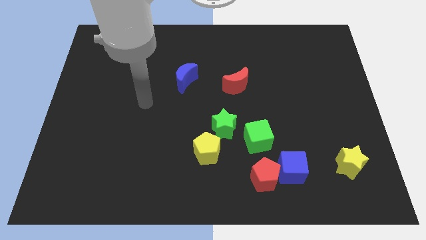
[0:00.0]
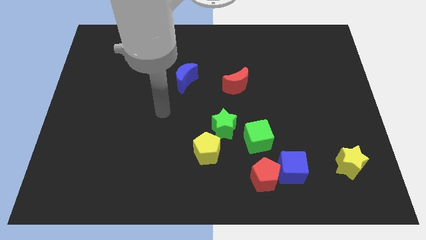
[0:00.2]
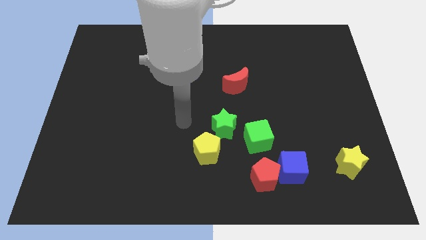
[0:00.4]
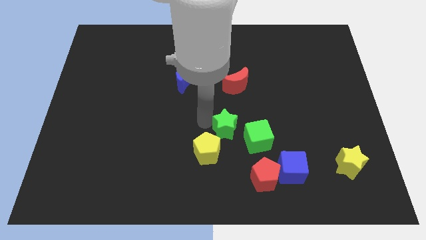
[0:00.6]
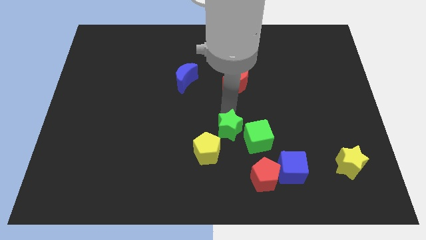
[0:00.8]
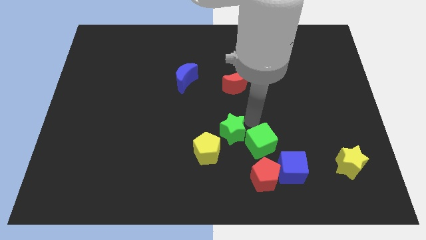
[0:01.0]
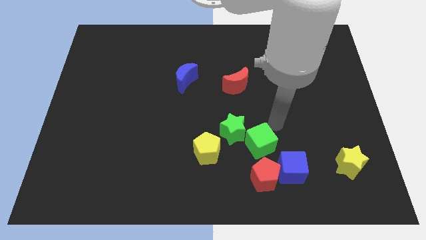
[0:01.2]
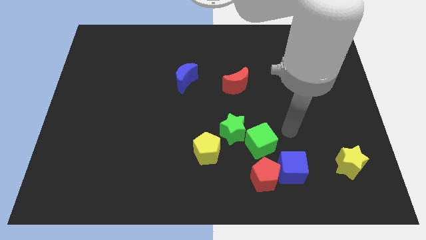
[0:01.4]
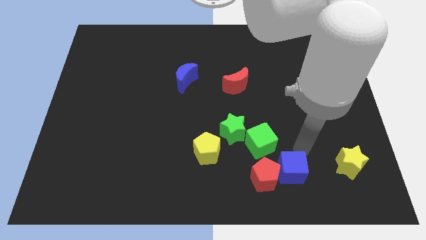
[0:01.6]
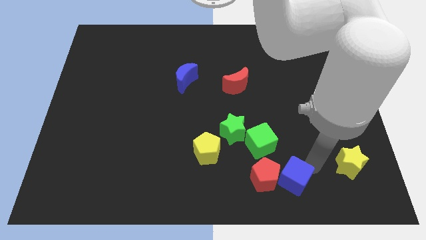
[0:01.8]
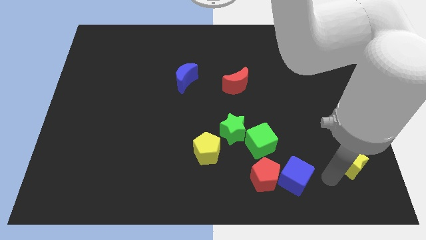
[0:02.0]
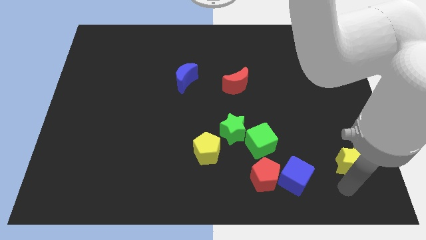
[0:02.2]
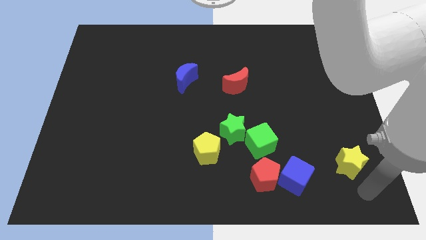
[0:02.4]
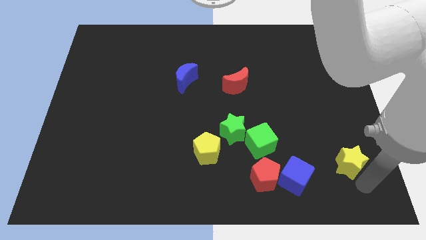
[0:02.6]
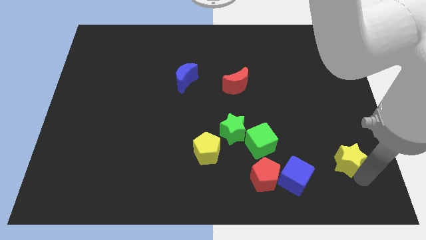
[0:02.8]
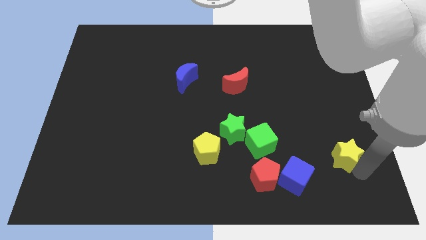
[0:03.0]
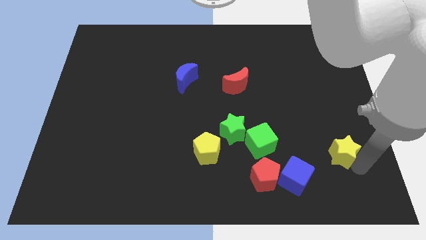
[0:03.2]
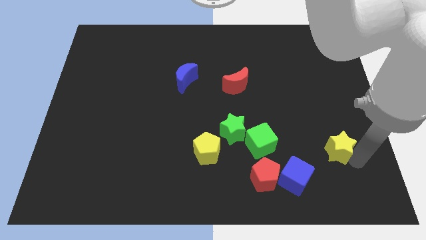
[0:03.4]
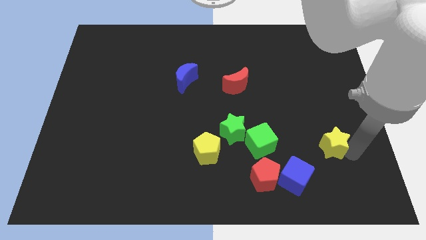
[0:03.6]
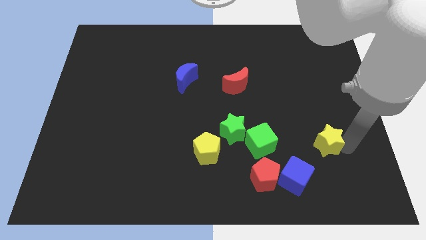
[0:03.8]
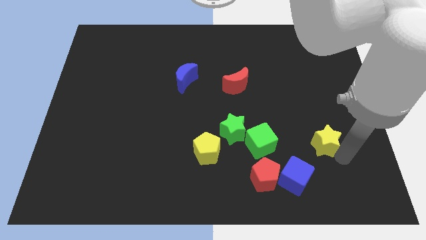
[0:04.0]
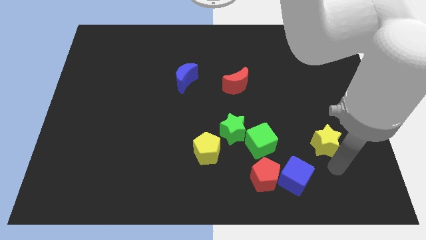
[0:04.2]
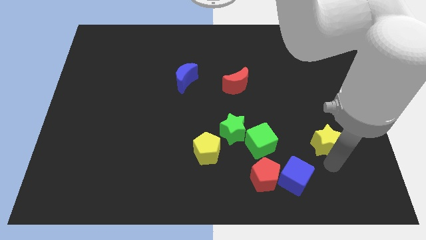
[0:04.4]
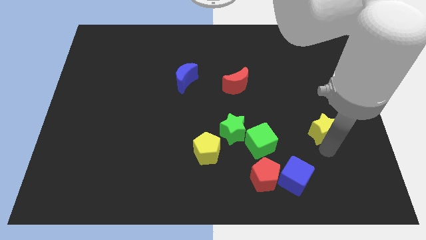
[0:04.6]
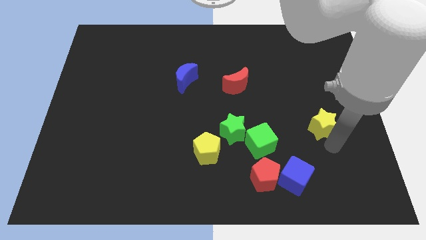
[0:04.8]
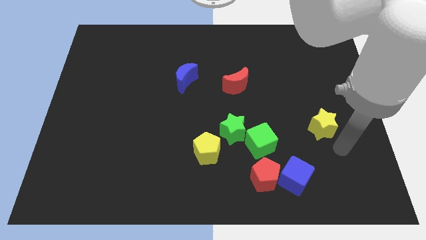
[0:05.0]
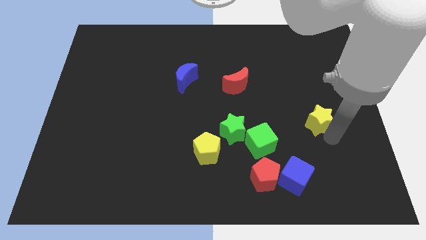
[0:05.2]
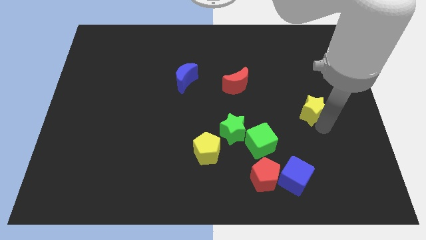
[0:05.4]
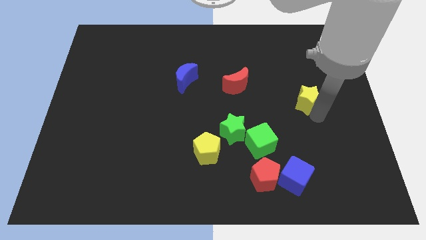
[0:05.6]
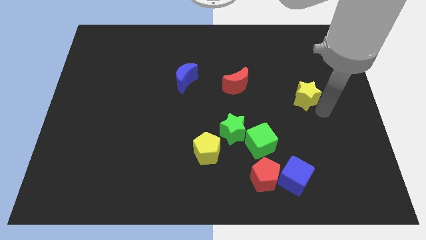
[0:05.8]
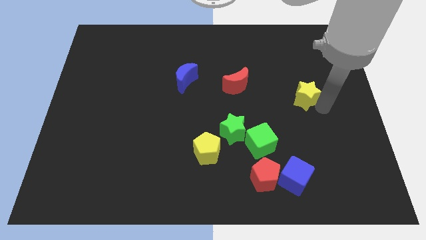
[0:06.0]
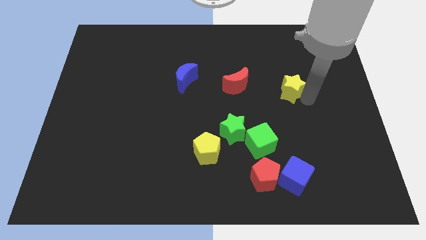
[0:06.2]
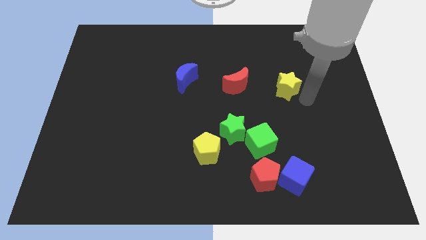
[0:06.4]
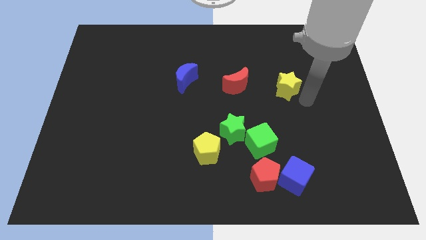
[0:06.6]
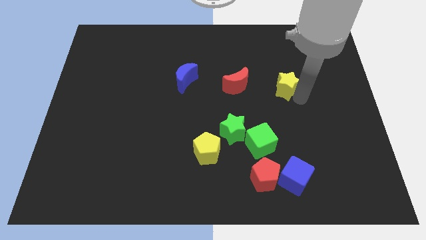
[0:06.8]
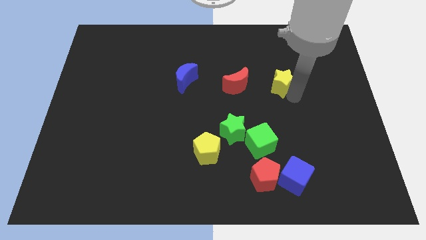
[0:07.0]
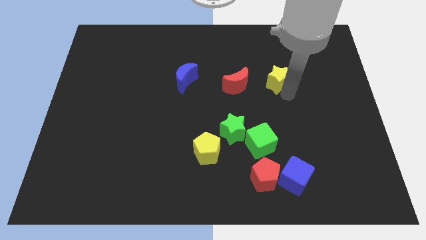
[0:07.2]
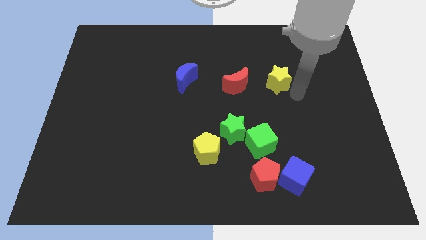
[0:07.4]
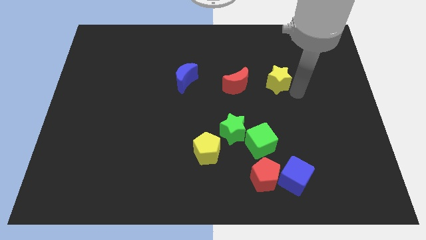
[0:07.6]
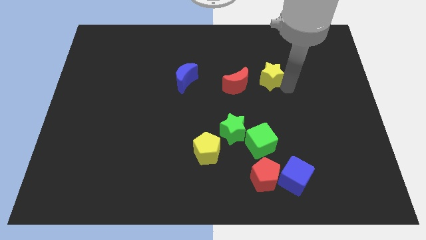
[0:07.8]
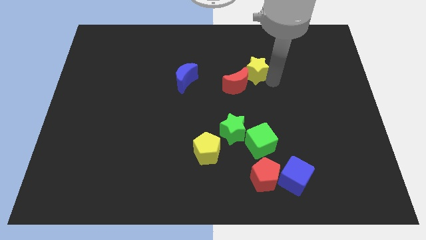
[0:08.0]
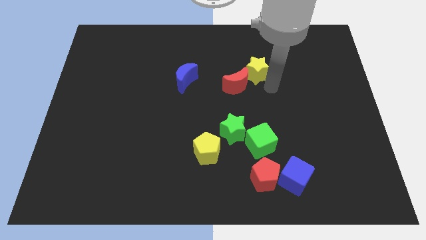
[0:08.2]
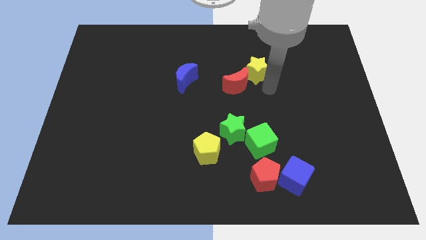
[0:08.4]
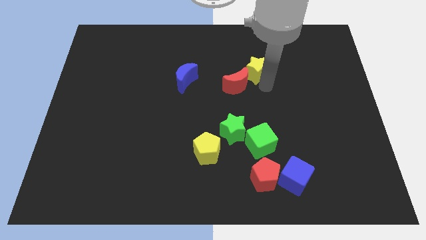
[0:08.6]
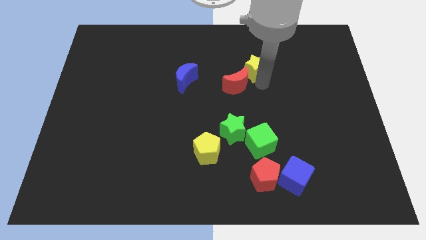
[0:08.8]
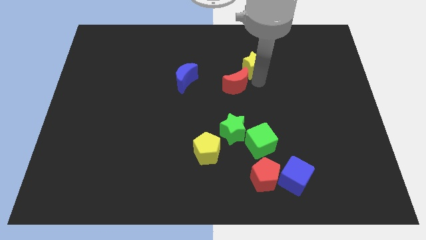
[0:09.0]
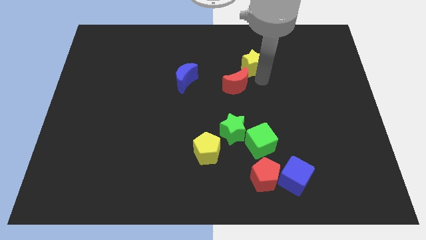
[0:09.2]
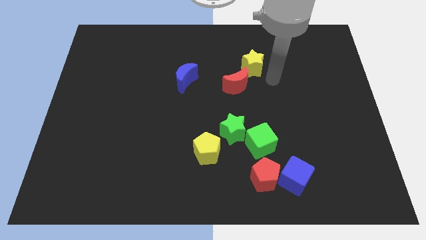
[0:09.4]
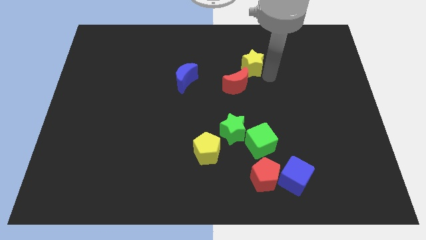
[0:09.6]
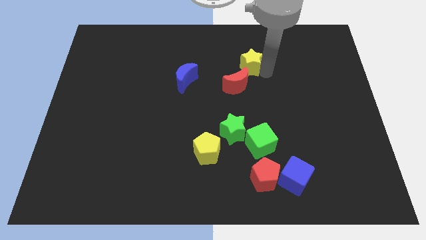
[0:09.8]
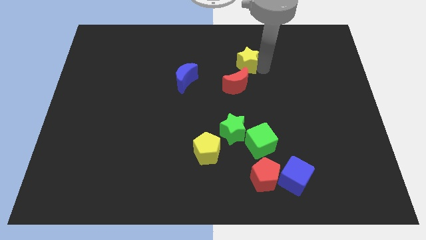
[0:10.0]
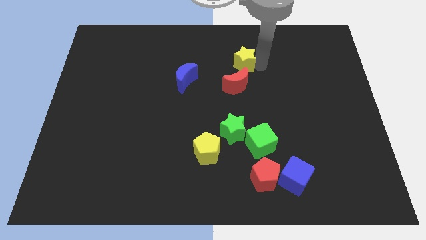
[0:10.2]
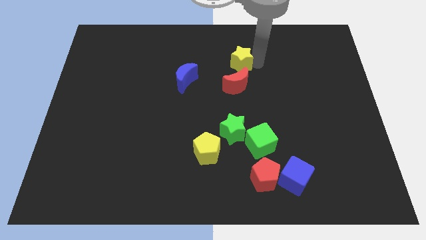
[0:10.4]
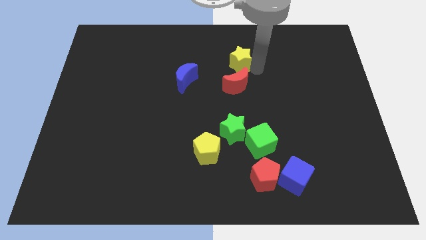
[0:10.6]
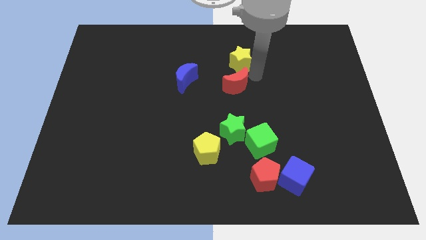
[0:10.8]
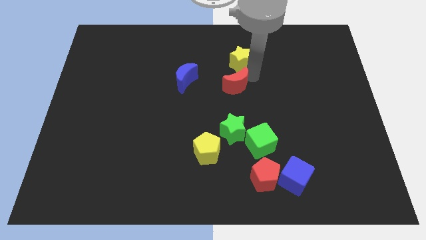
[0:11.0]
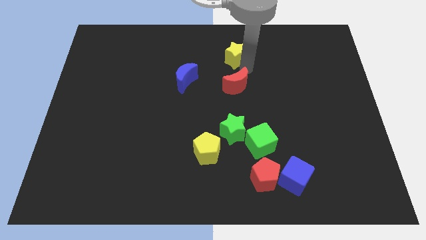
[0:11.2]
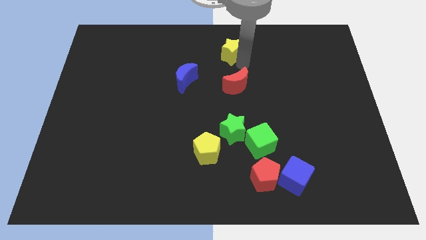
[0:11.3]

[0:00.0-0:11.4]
put the yellow star to the top
